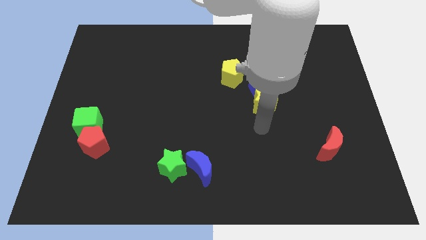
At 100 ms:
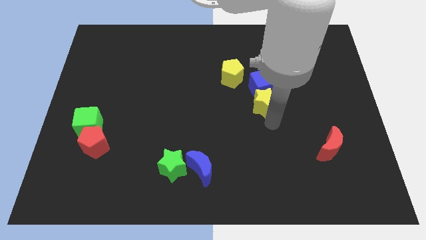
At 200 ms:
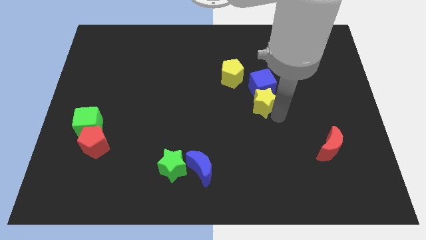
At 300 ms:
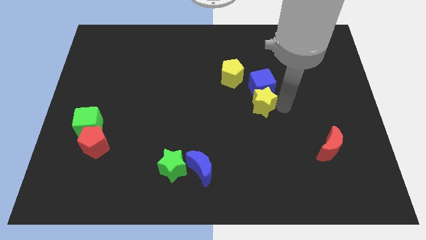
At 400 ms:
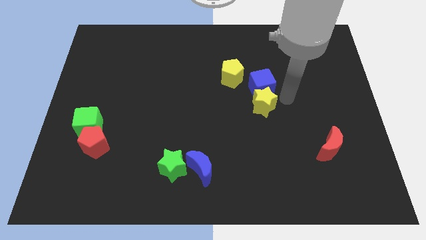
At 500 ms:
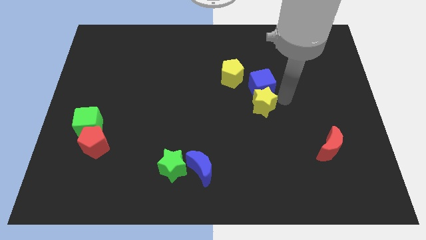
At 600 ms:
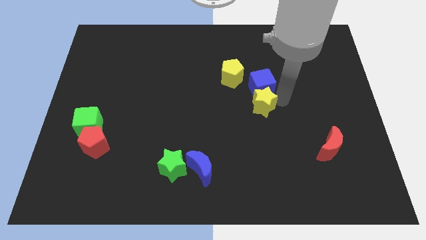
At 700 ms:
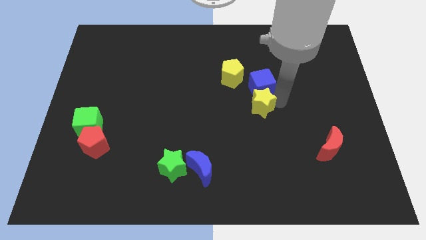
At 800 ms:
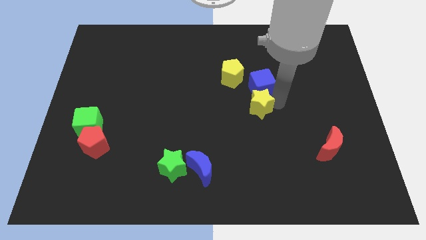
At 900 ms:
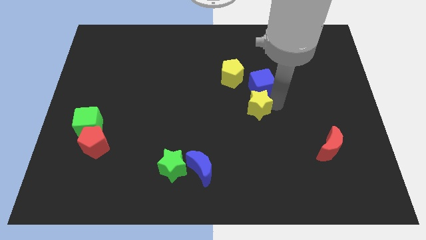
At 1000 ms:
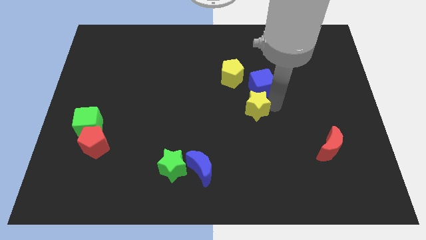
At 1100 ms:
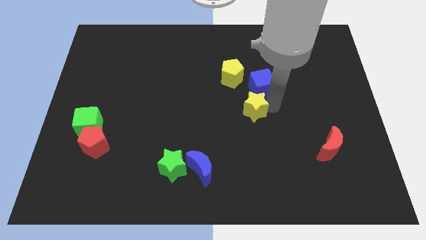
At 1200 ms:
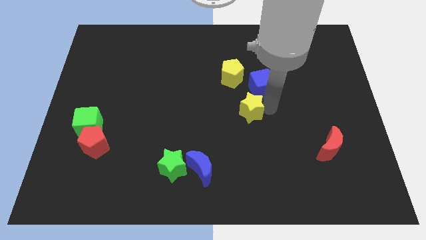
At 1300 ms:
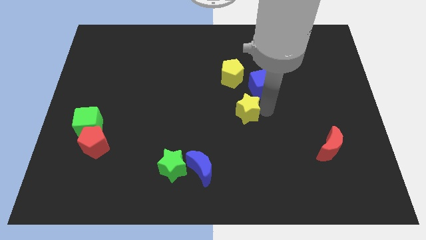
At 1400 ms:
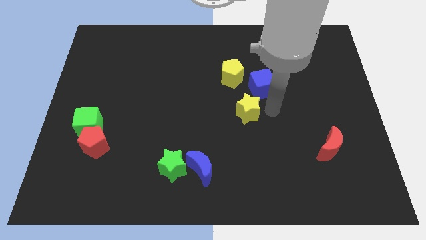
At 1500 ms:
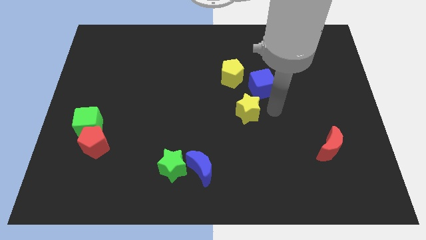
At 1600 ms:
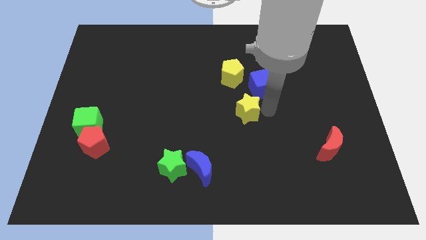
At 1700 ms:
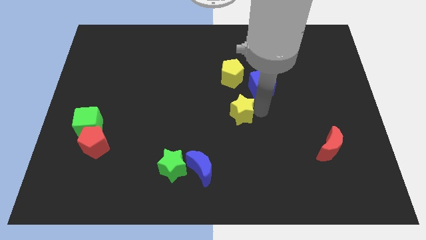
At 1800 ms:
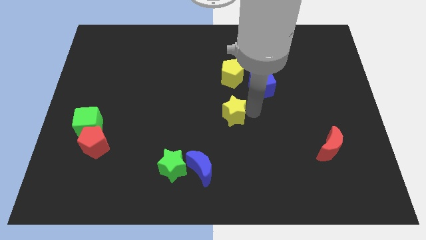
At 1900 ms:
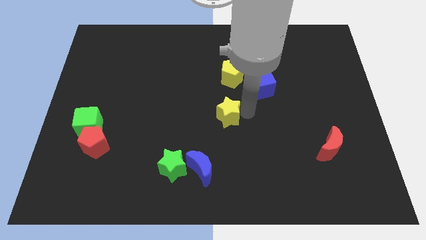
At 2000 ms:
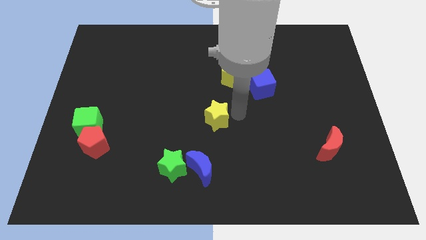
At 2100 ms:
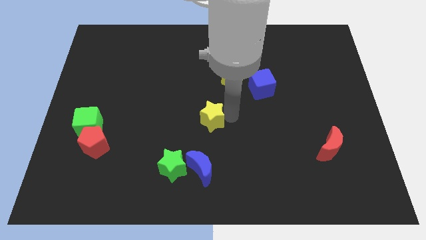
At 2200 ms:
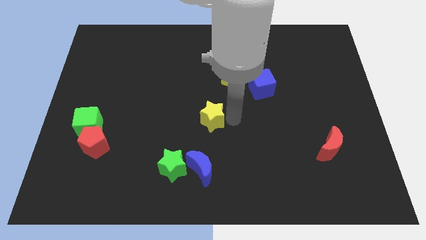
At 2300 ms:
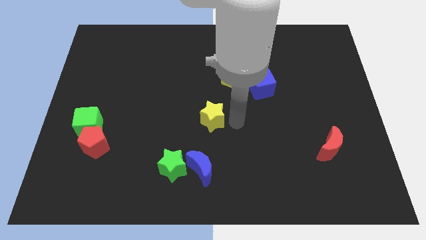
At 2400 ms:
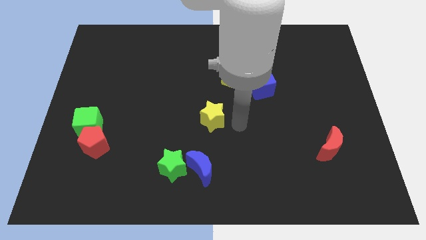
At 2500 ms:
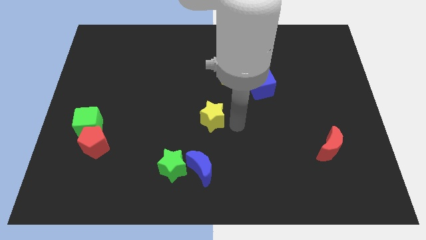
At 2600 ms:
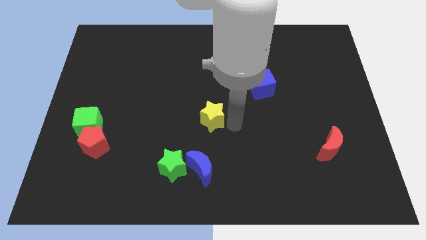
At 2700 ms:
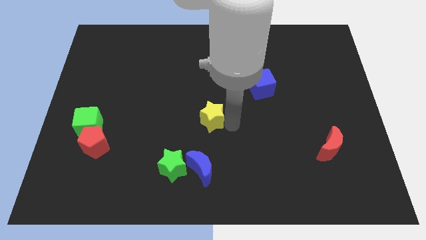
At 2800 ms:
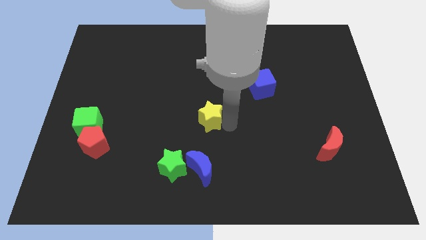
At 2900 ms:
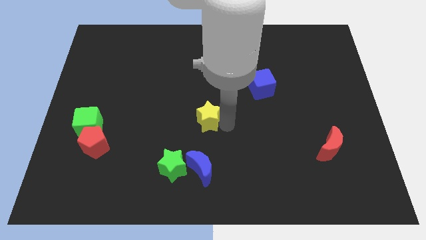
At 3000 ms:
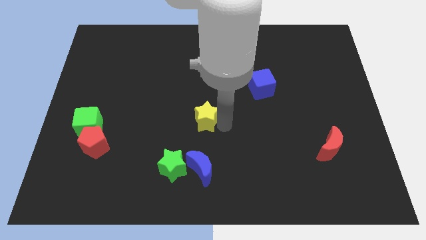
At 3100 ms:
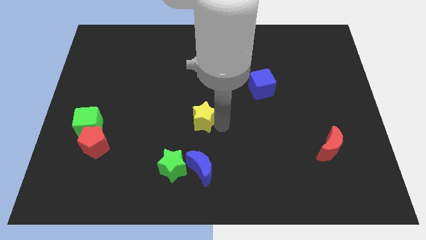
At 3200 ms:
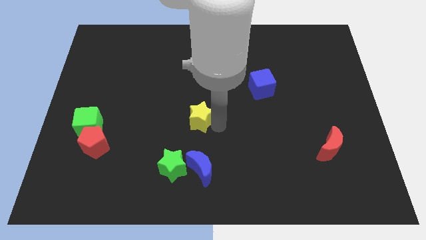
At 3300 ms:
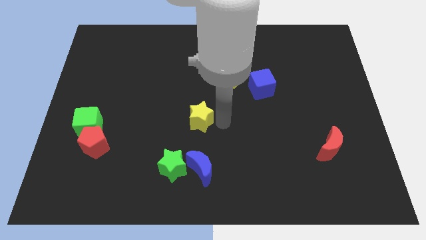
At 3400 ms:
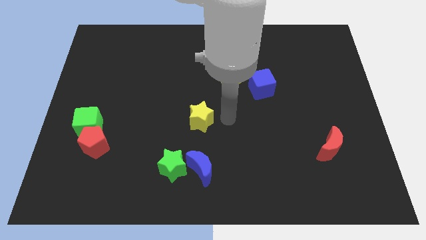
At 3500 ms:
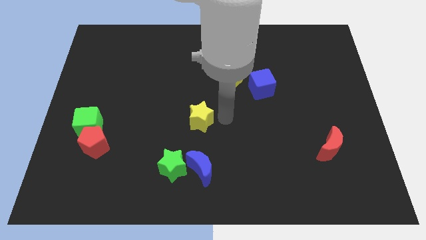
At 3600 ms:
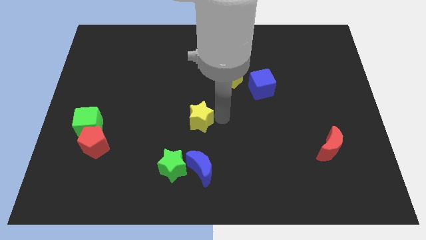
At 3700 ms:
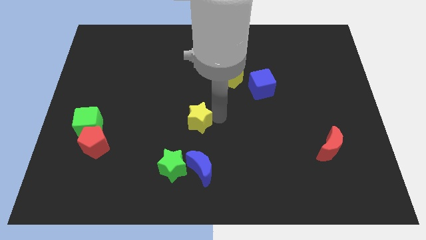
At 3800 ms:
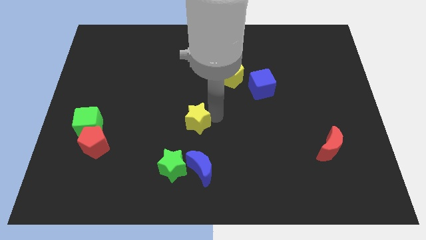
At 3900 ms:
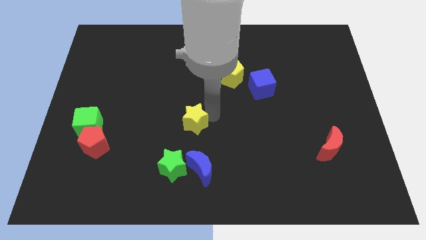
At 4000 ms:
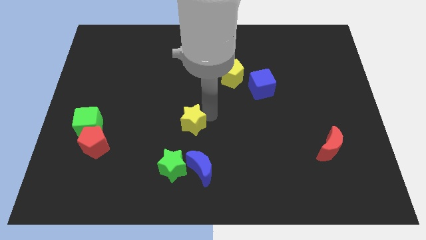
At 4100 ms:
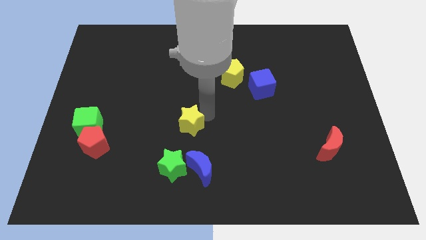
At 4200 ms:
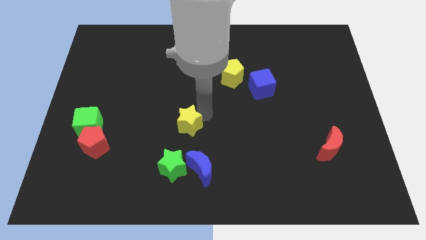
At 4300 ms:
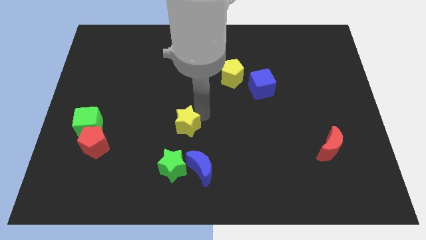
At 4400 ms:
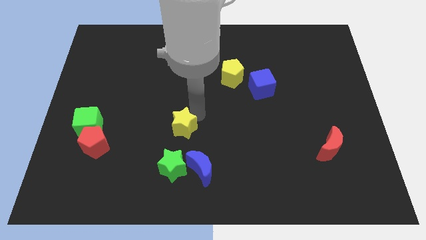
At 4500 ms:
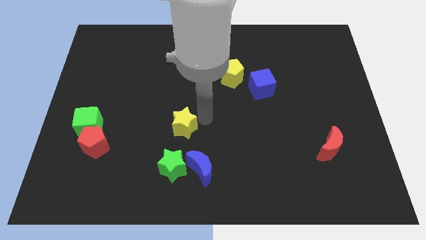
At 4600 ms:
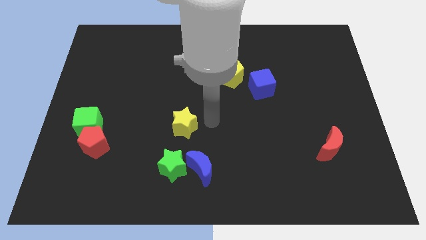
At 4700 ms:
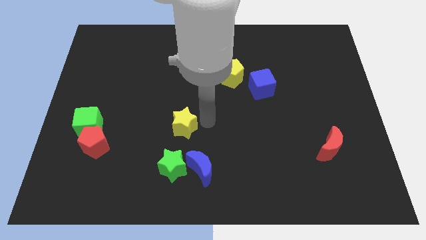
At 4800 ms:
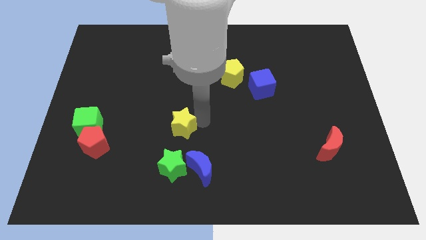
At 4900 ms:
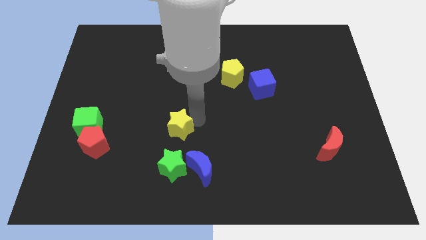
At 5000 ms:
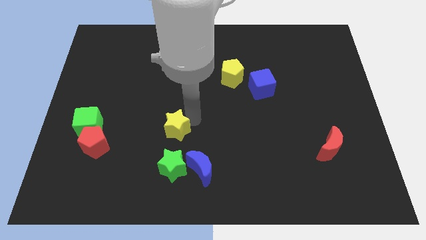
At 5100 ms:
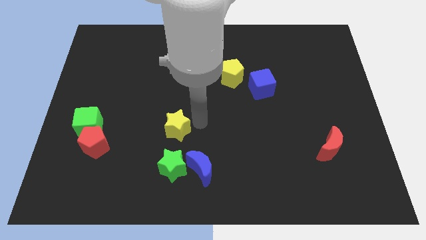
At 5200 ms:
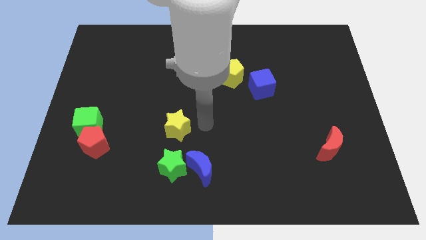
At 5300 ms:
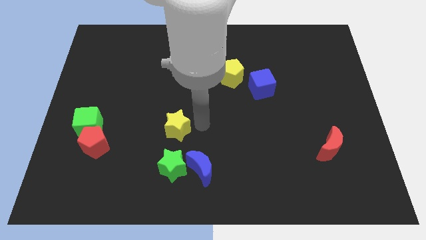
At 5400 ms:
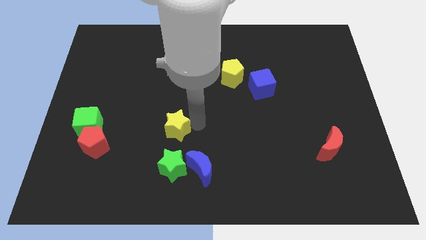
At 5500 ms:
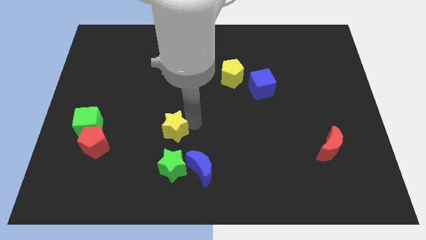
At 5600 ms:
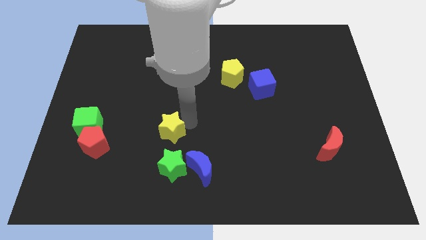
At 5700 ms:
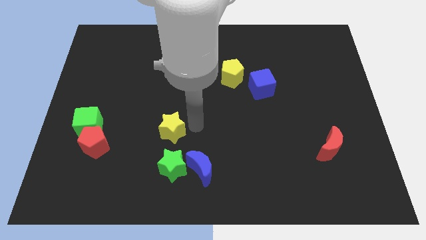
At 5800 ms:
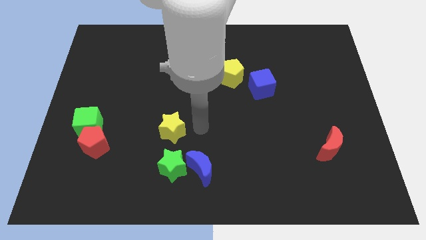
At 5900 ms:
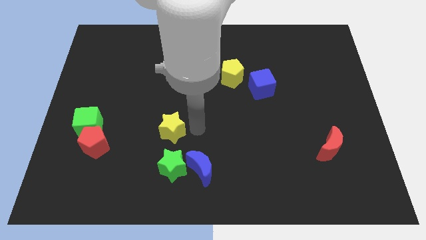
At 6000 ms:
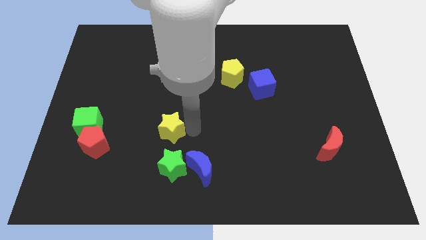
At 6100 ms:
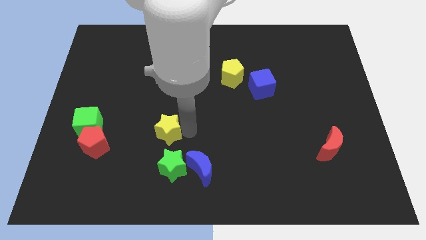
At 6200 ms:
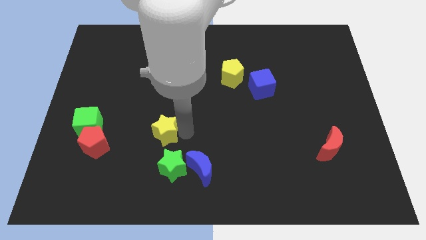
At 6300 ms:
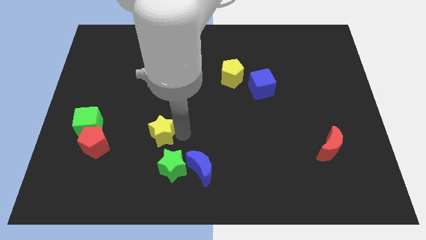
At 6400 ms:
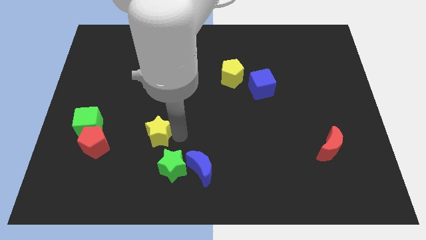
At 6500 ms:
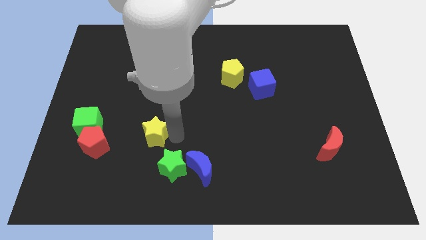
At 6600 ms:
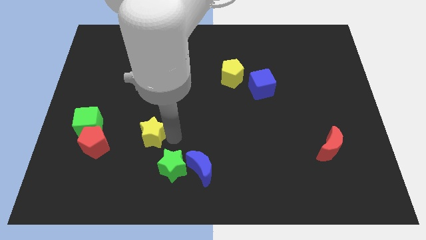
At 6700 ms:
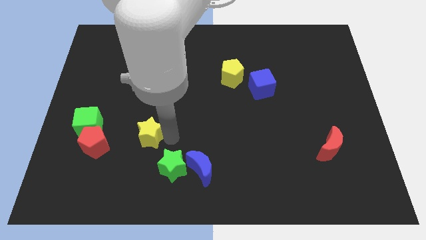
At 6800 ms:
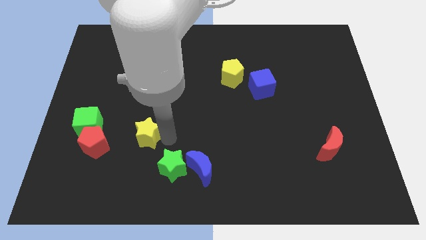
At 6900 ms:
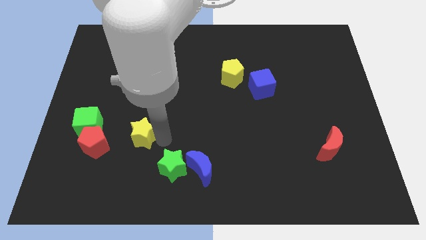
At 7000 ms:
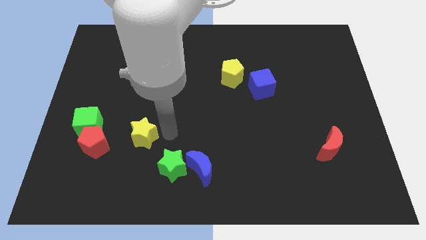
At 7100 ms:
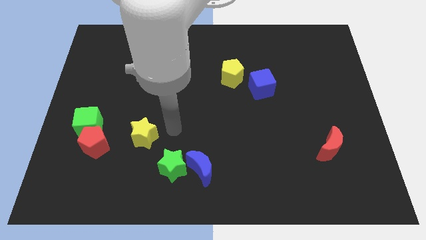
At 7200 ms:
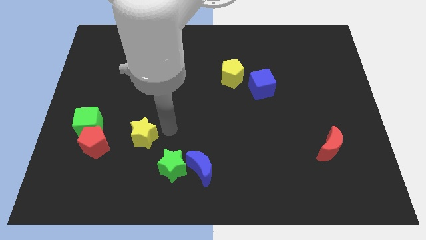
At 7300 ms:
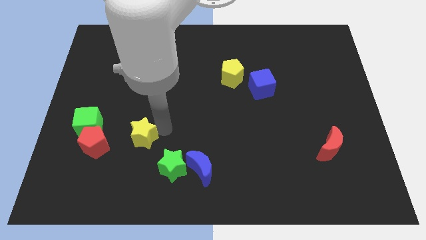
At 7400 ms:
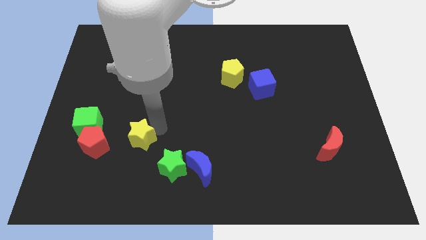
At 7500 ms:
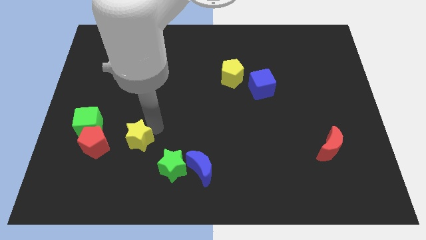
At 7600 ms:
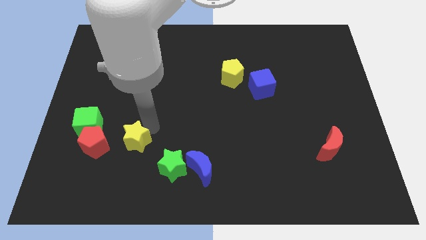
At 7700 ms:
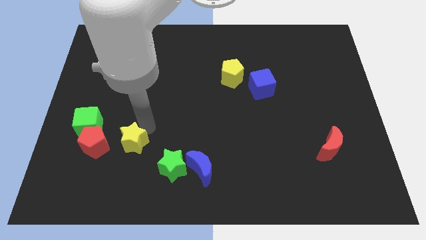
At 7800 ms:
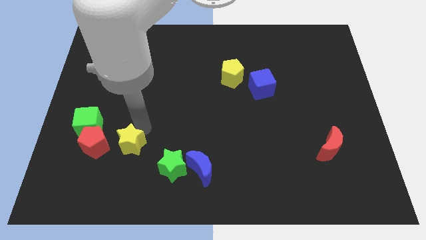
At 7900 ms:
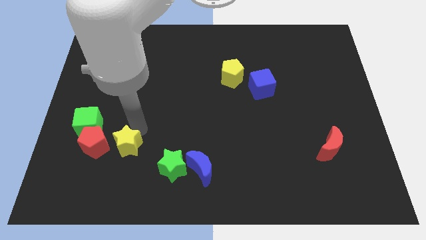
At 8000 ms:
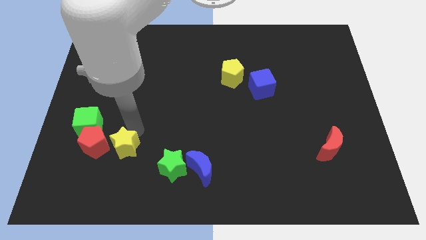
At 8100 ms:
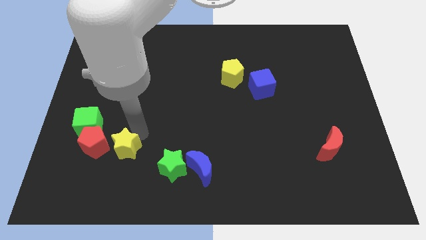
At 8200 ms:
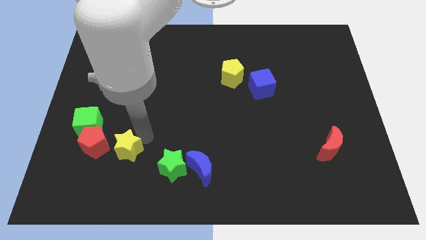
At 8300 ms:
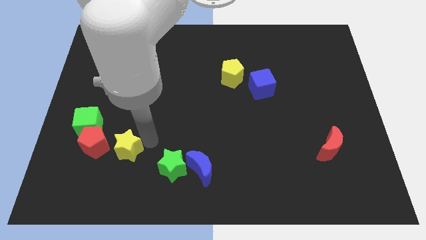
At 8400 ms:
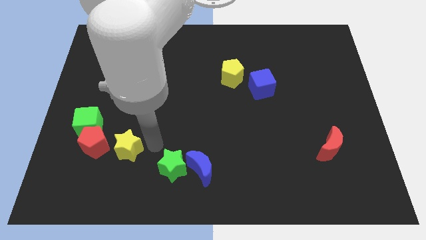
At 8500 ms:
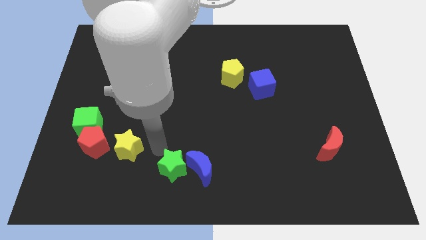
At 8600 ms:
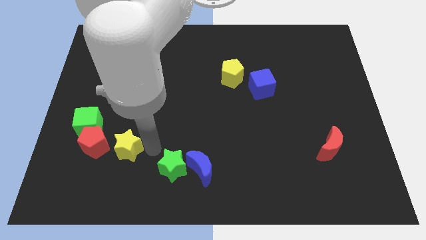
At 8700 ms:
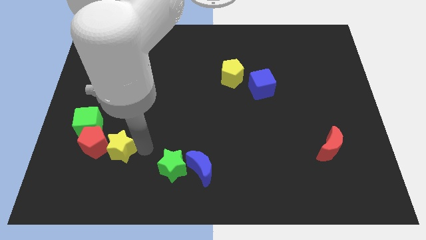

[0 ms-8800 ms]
put the yellow star next to the red pentagon
